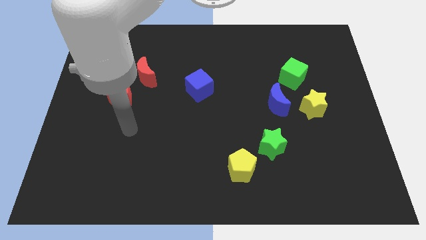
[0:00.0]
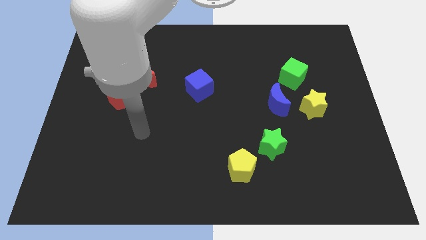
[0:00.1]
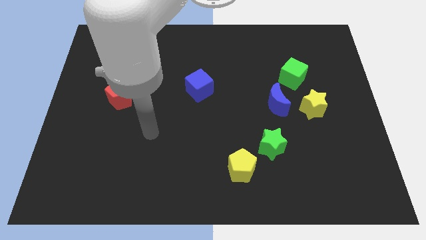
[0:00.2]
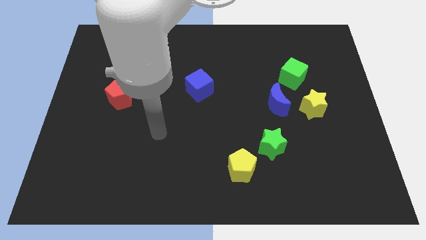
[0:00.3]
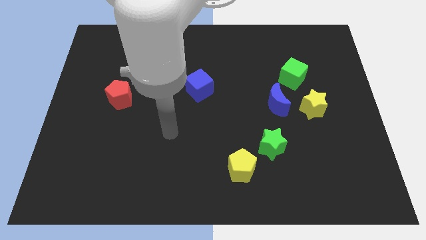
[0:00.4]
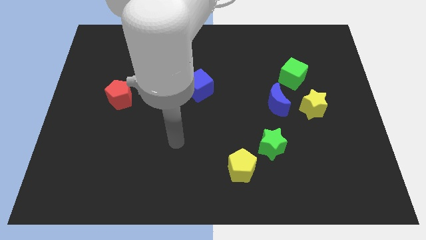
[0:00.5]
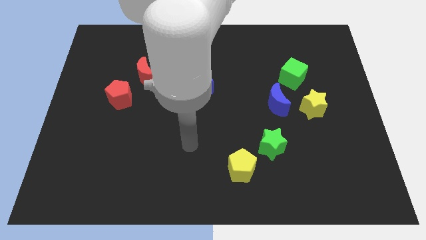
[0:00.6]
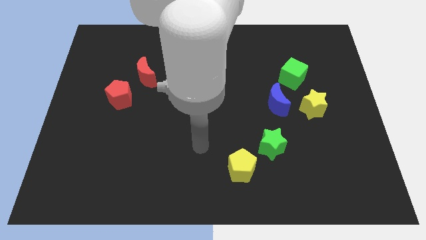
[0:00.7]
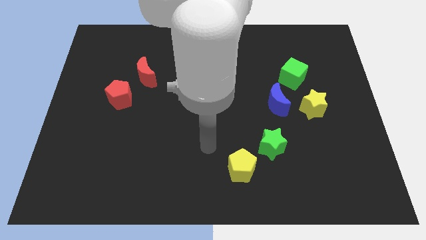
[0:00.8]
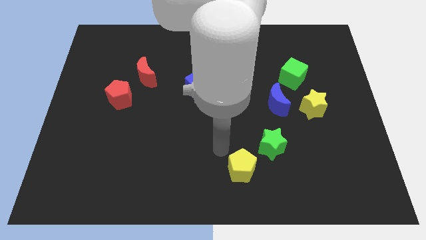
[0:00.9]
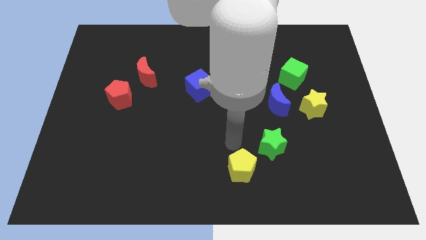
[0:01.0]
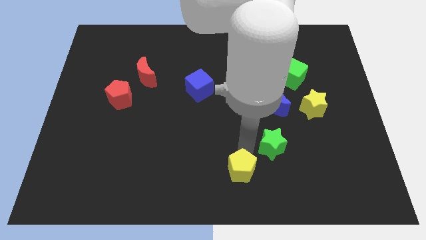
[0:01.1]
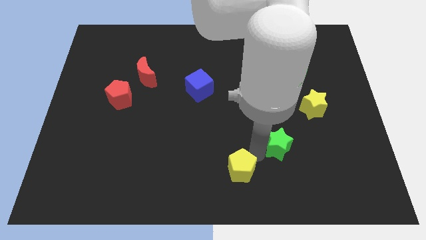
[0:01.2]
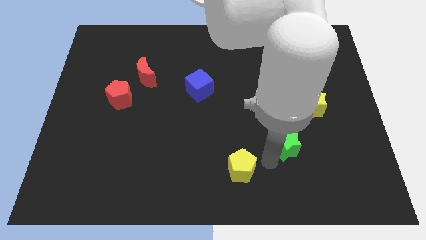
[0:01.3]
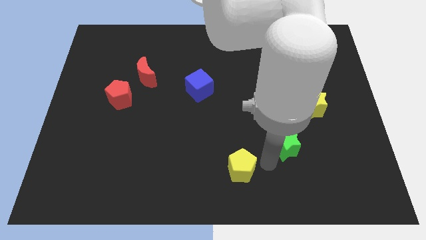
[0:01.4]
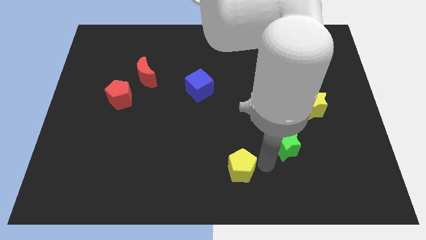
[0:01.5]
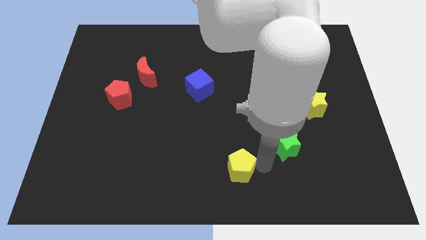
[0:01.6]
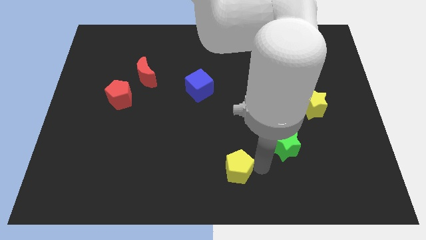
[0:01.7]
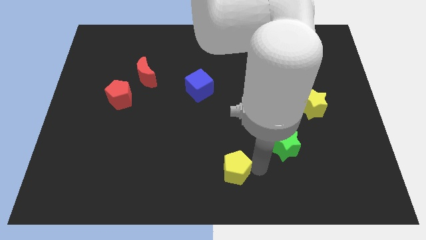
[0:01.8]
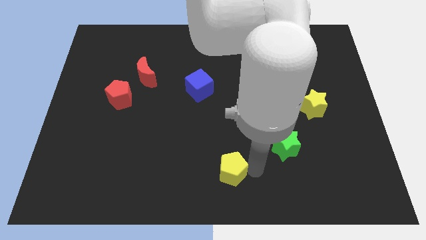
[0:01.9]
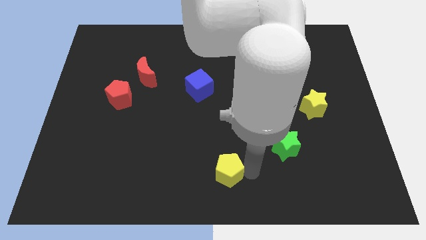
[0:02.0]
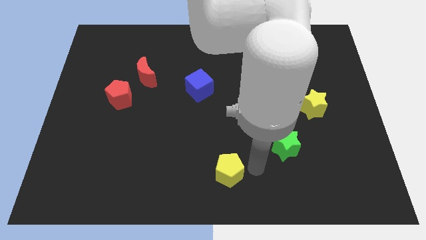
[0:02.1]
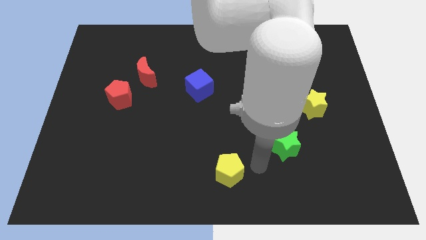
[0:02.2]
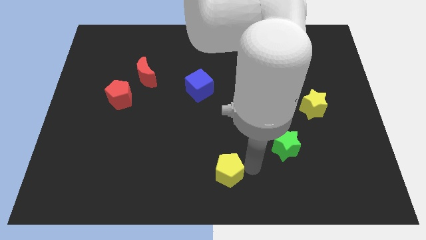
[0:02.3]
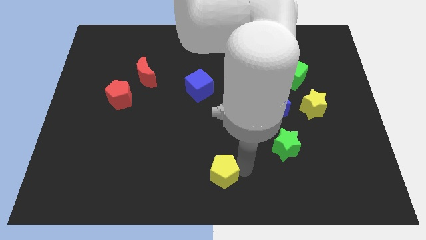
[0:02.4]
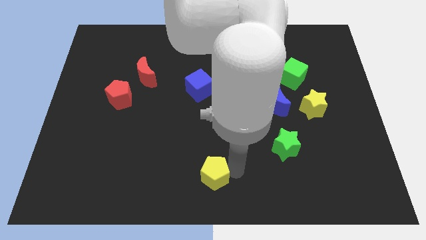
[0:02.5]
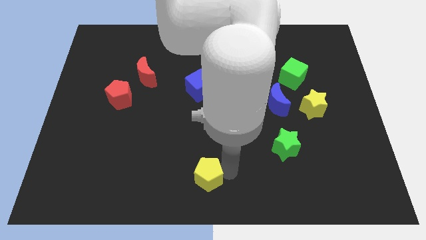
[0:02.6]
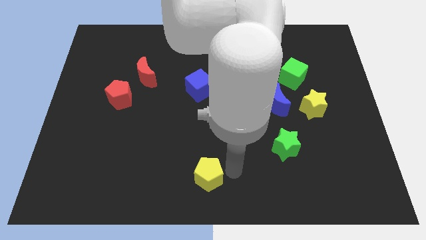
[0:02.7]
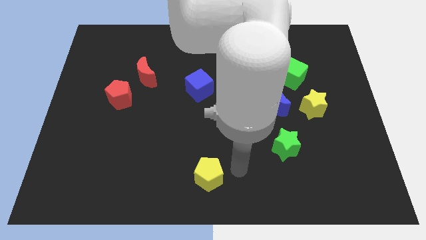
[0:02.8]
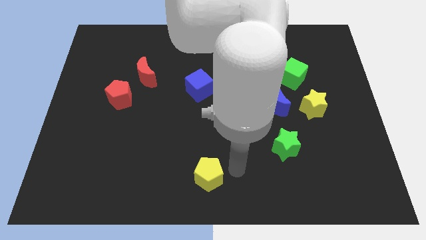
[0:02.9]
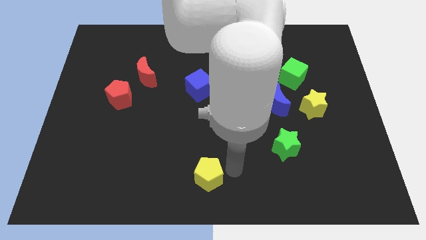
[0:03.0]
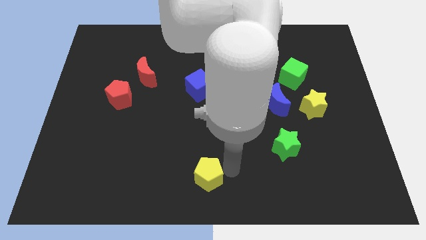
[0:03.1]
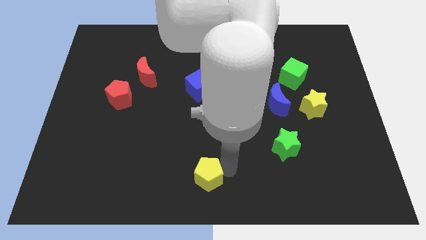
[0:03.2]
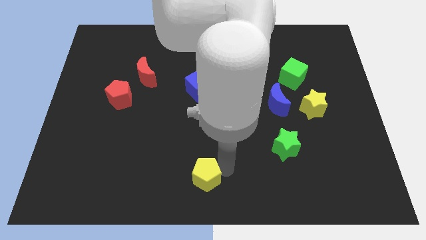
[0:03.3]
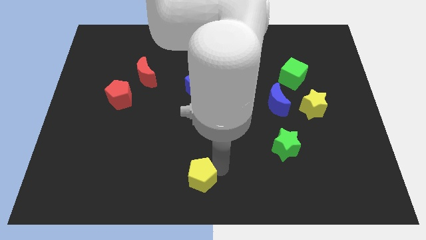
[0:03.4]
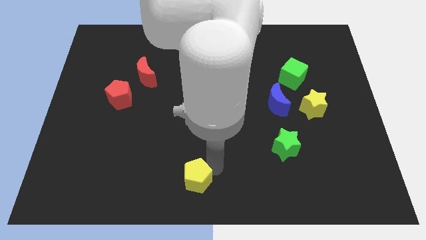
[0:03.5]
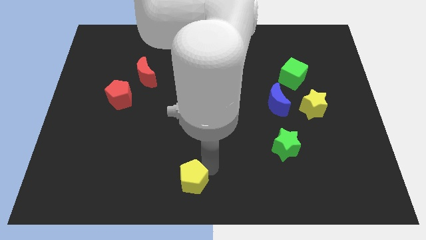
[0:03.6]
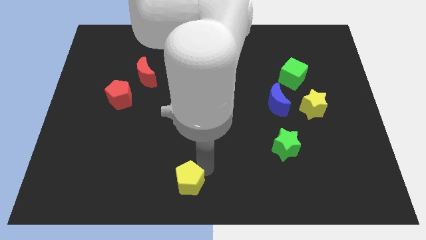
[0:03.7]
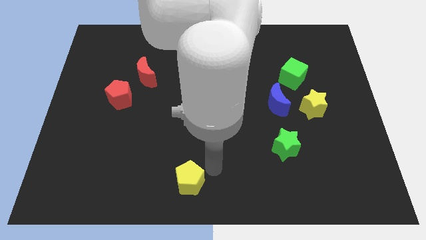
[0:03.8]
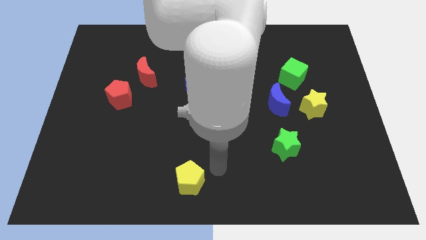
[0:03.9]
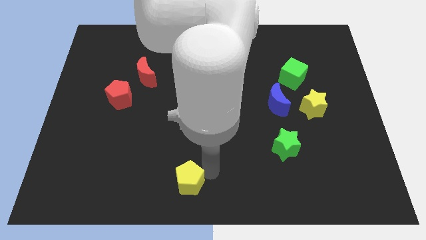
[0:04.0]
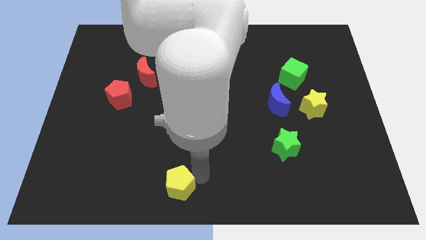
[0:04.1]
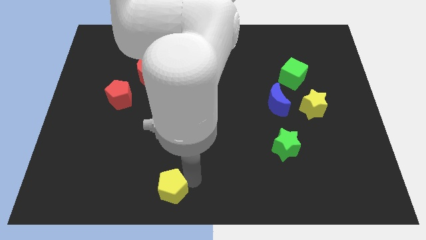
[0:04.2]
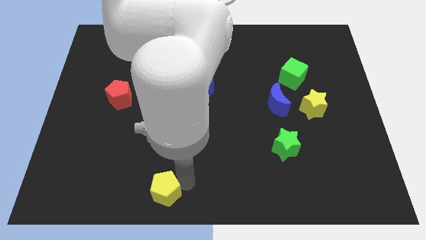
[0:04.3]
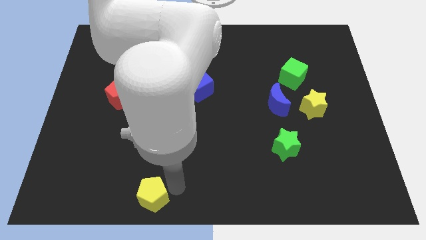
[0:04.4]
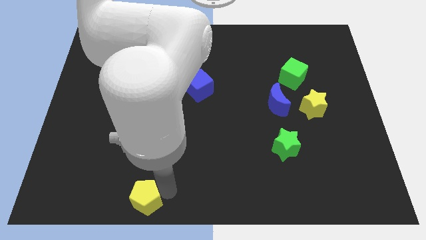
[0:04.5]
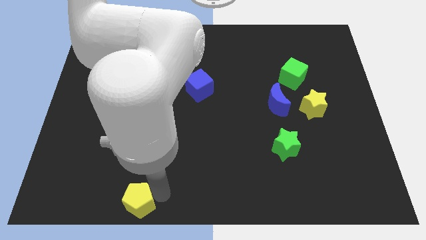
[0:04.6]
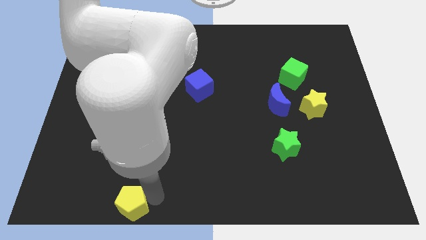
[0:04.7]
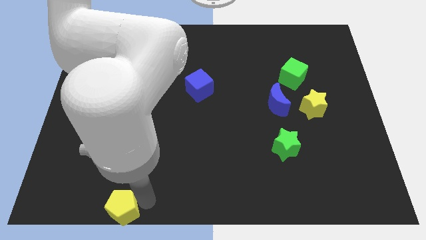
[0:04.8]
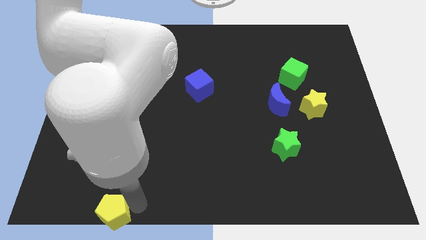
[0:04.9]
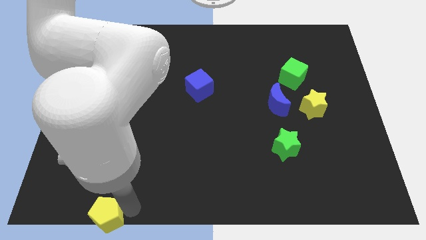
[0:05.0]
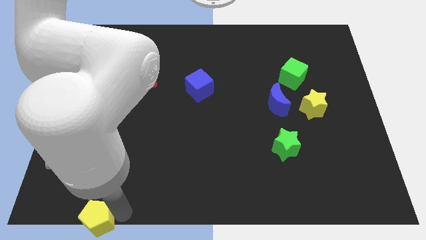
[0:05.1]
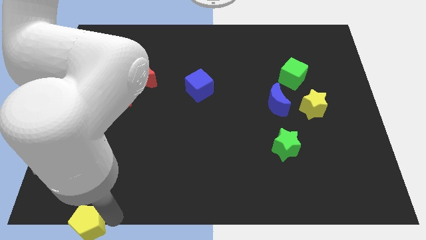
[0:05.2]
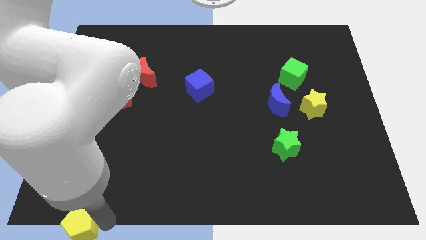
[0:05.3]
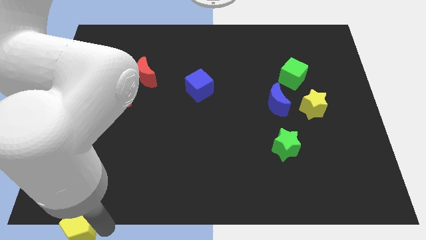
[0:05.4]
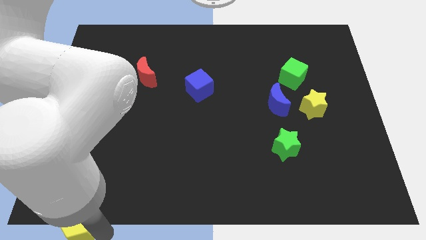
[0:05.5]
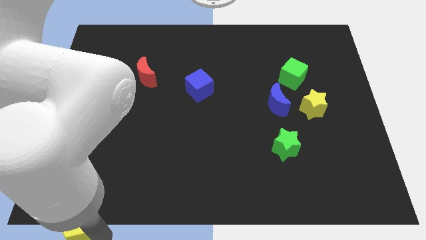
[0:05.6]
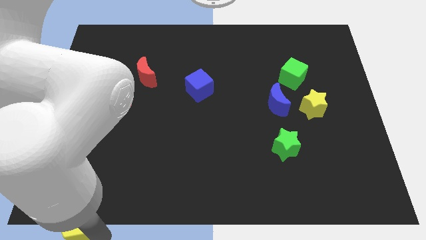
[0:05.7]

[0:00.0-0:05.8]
push the yellow pentagon to the lower left corner

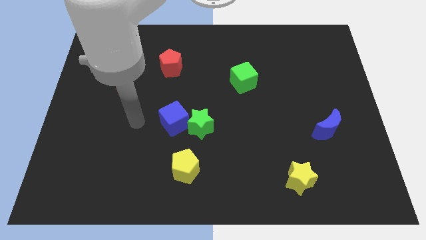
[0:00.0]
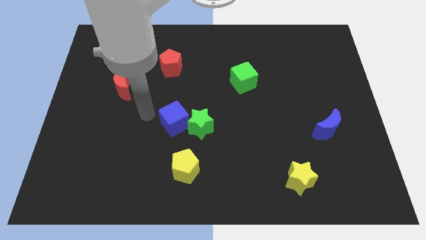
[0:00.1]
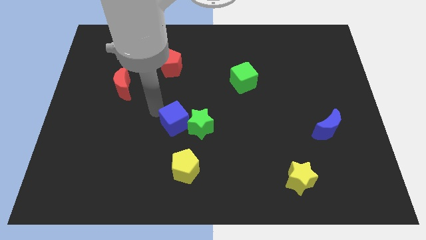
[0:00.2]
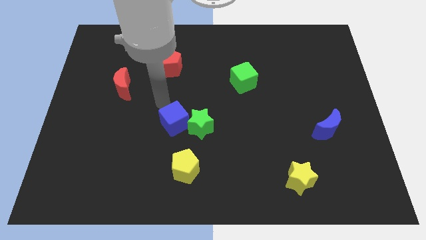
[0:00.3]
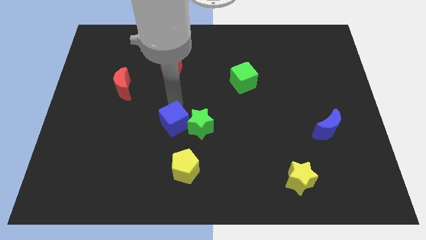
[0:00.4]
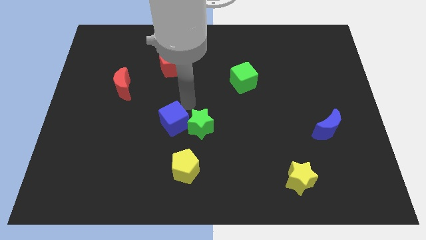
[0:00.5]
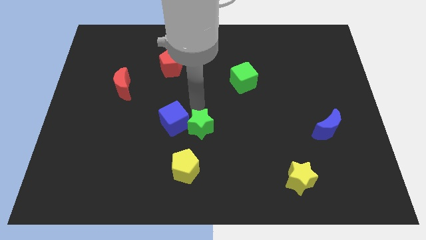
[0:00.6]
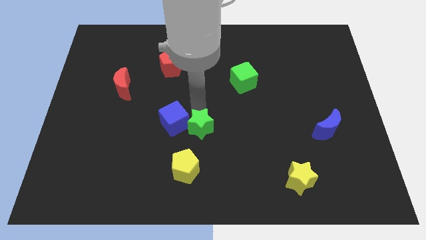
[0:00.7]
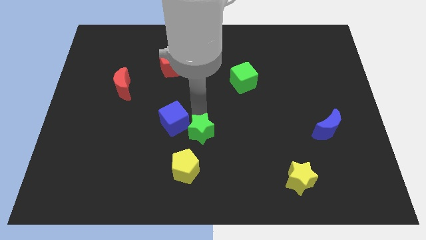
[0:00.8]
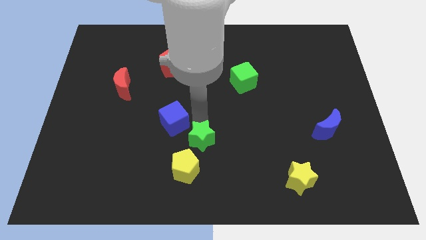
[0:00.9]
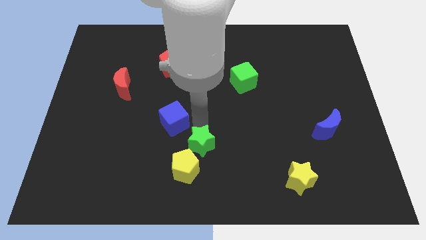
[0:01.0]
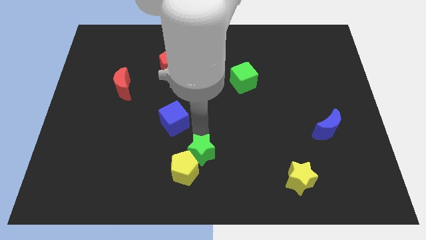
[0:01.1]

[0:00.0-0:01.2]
move the green star to the bottom
